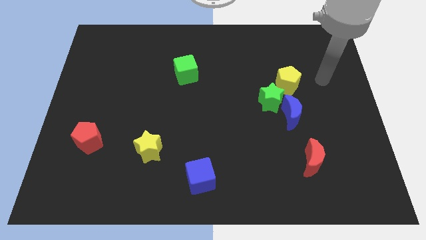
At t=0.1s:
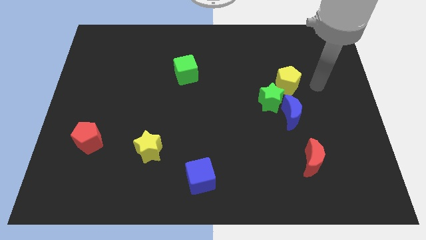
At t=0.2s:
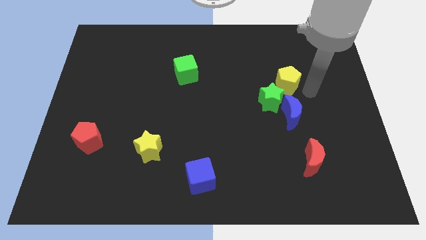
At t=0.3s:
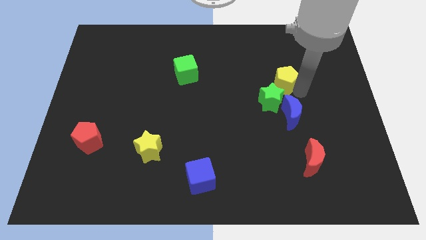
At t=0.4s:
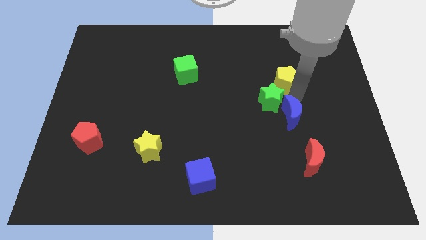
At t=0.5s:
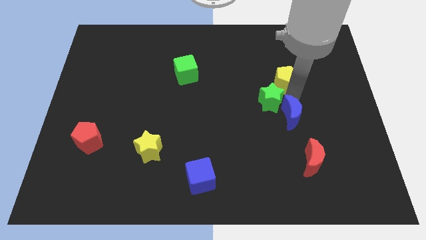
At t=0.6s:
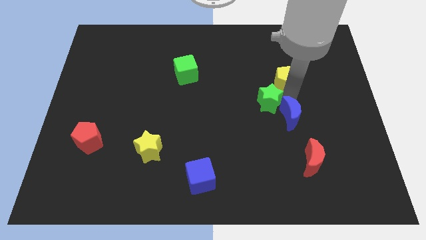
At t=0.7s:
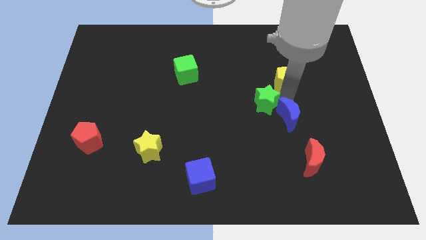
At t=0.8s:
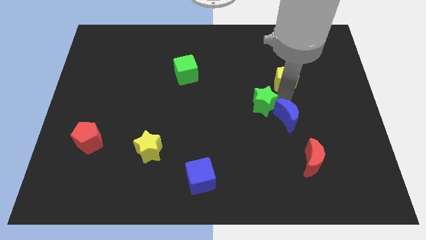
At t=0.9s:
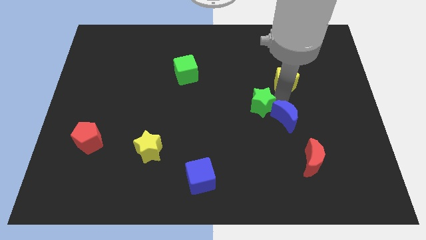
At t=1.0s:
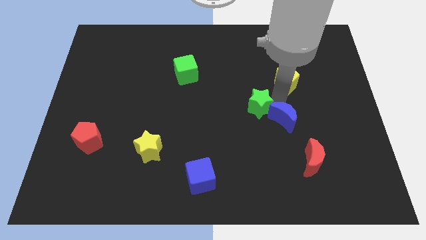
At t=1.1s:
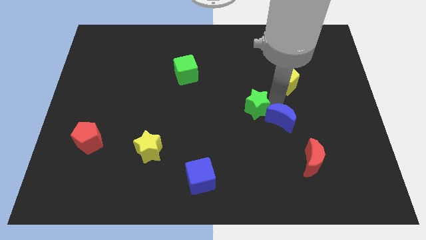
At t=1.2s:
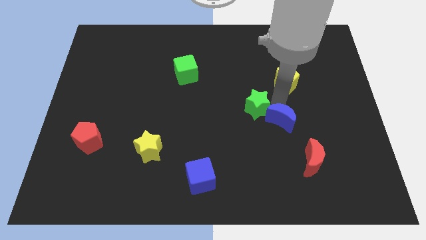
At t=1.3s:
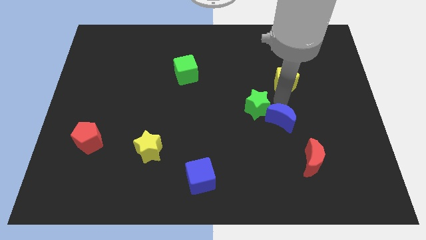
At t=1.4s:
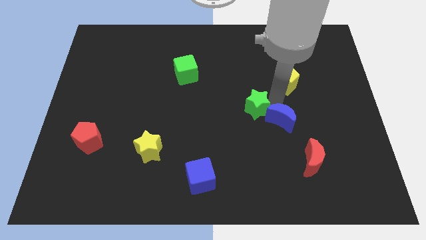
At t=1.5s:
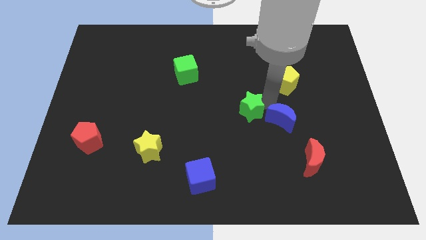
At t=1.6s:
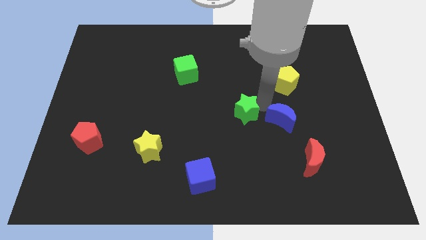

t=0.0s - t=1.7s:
pull the green star apart from the blue moon and yellow pentagon

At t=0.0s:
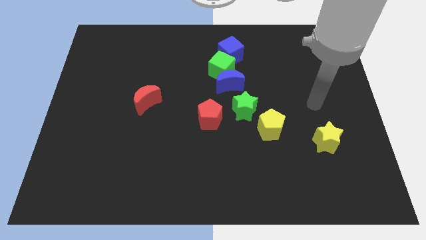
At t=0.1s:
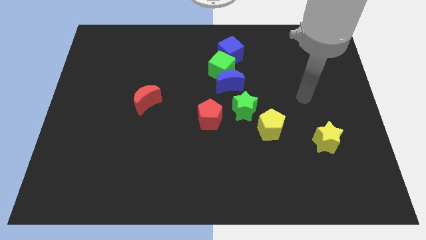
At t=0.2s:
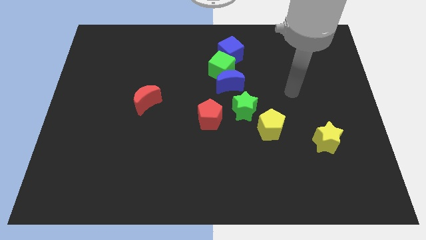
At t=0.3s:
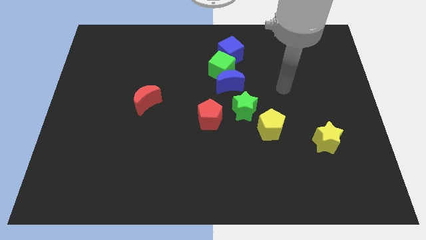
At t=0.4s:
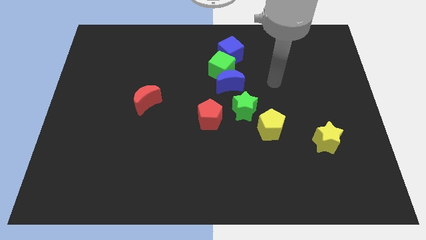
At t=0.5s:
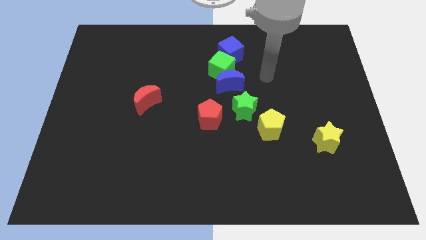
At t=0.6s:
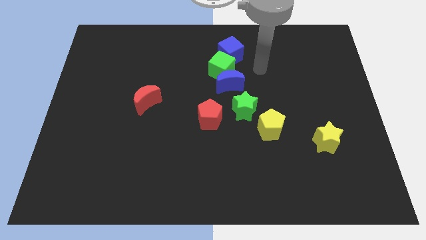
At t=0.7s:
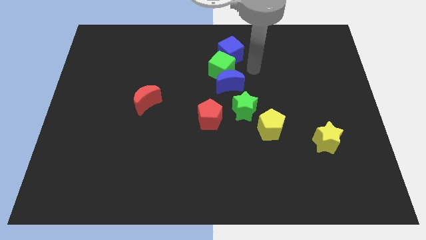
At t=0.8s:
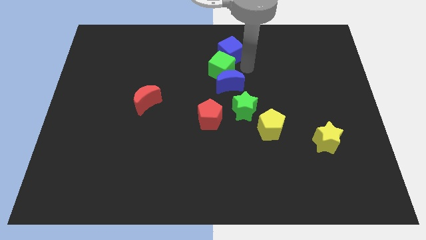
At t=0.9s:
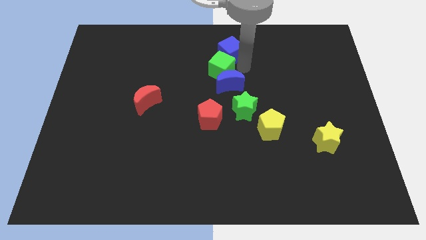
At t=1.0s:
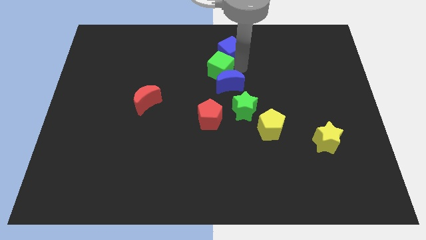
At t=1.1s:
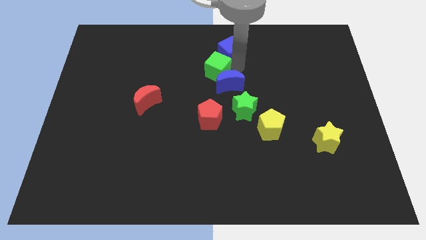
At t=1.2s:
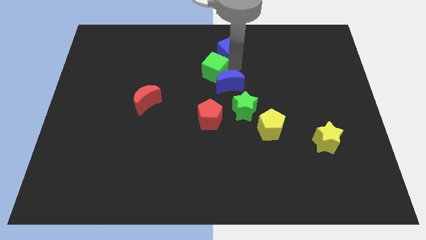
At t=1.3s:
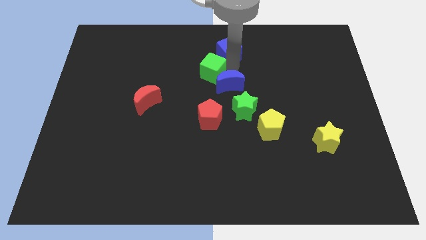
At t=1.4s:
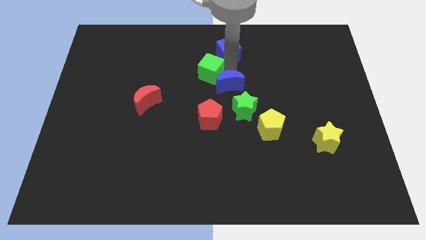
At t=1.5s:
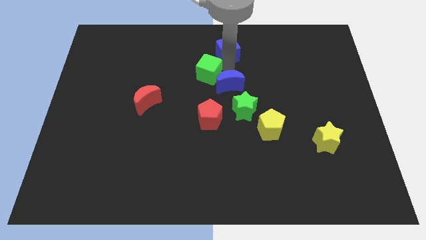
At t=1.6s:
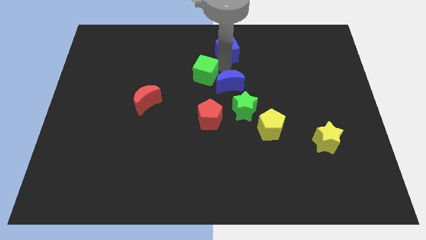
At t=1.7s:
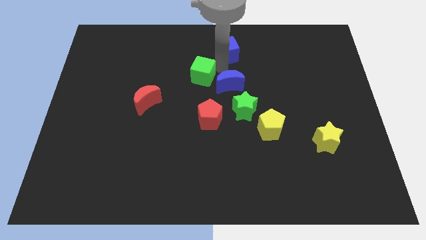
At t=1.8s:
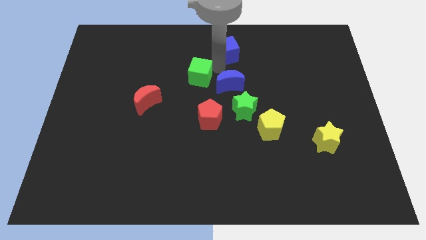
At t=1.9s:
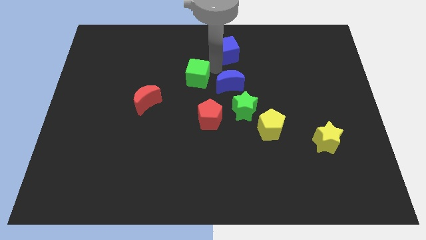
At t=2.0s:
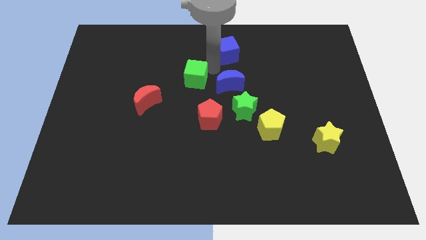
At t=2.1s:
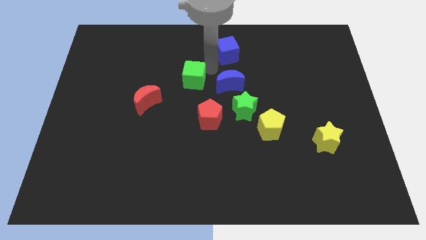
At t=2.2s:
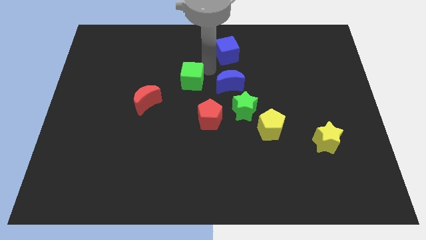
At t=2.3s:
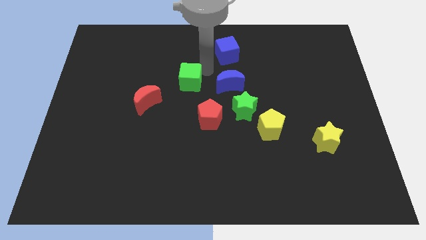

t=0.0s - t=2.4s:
pull the green cube apart from the blue moon and blue cube

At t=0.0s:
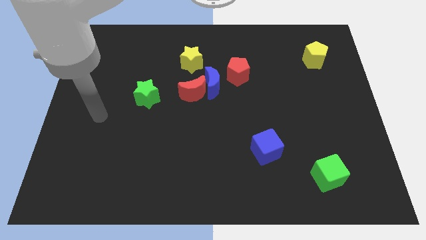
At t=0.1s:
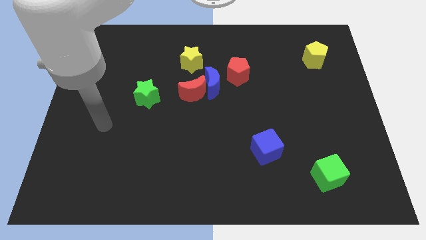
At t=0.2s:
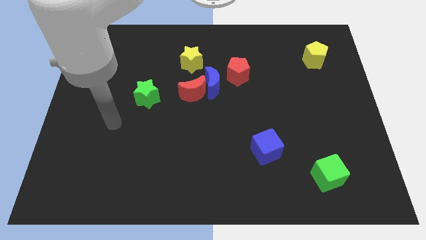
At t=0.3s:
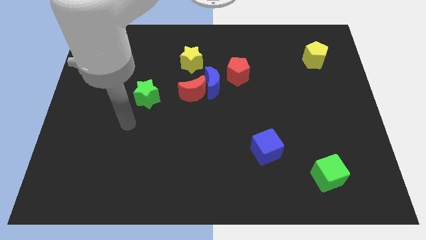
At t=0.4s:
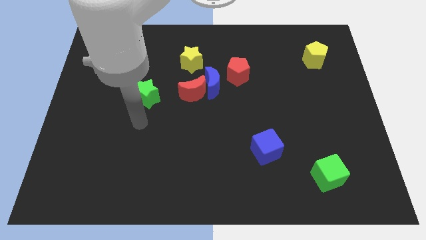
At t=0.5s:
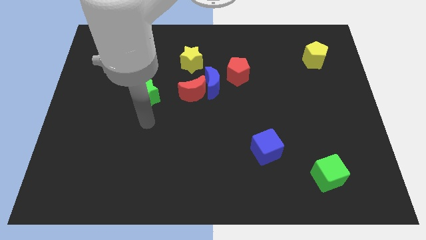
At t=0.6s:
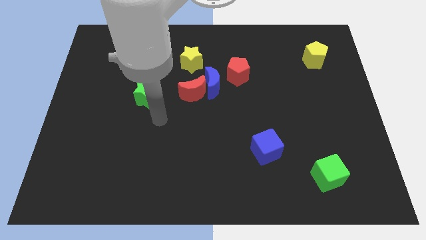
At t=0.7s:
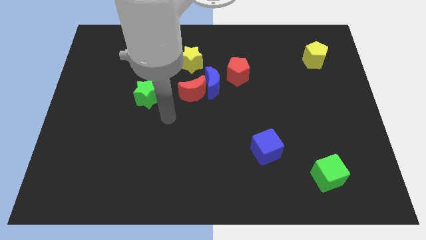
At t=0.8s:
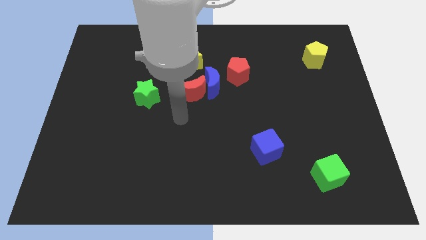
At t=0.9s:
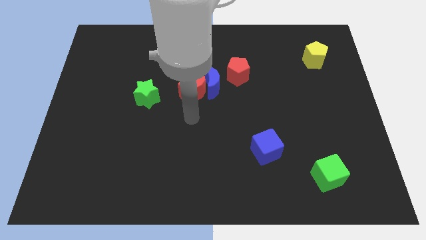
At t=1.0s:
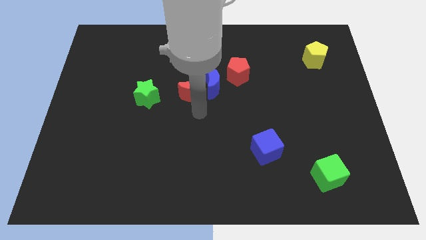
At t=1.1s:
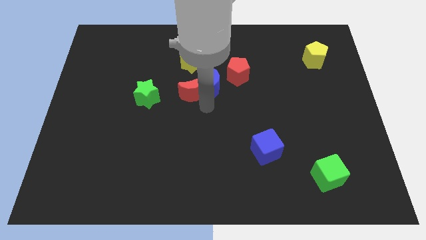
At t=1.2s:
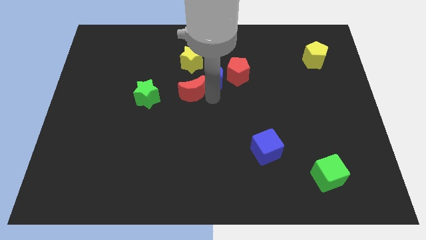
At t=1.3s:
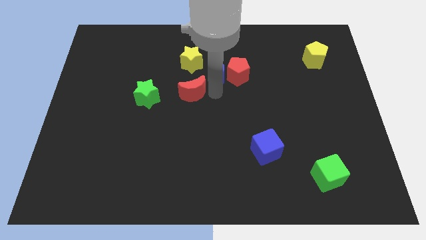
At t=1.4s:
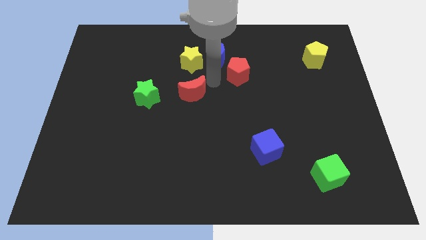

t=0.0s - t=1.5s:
move the red moon away from the blue moon

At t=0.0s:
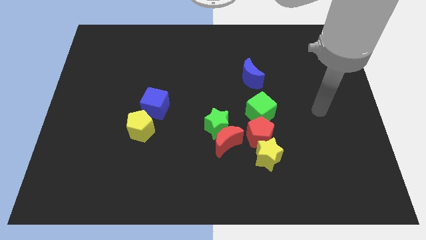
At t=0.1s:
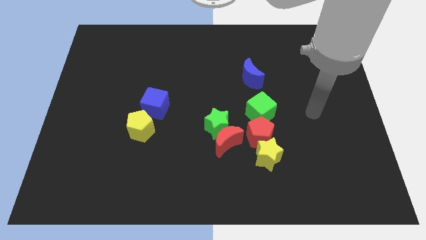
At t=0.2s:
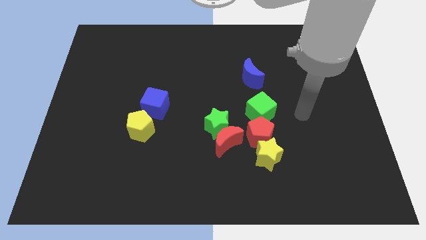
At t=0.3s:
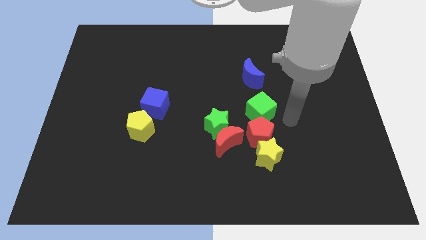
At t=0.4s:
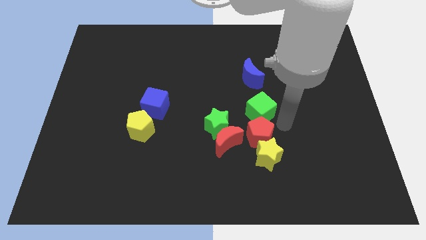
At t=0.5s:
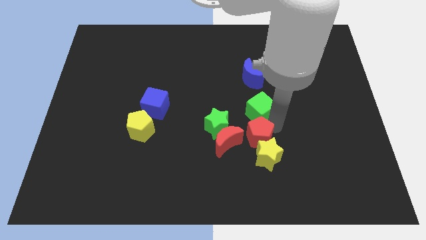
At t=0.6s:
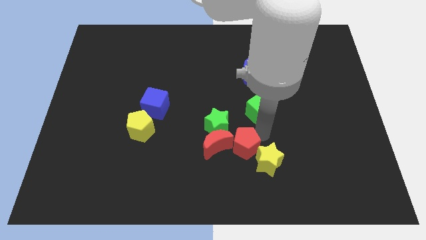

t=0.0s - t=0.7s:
pull the green cube apart from the red pentagon

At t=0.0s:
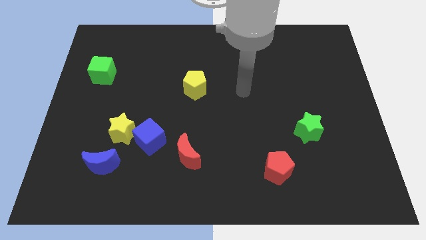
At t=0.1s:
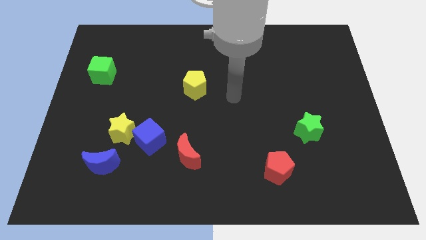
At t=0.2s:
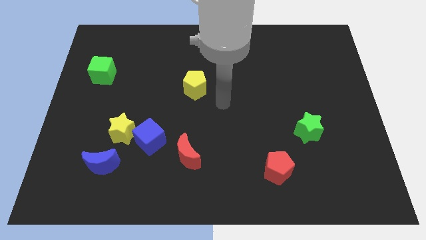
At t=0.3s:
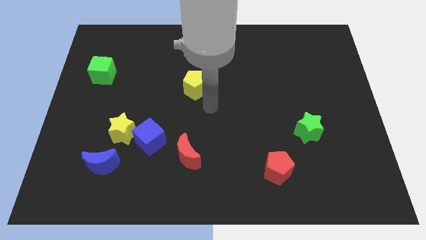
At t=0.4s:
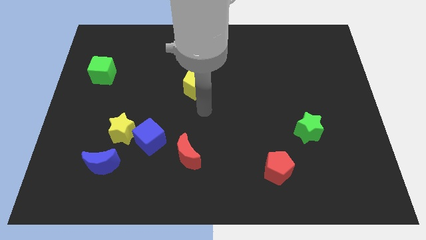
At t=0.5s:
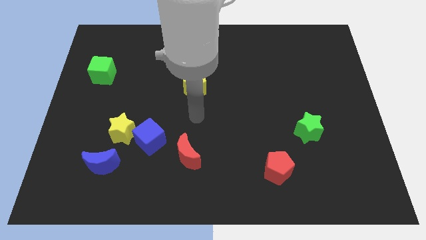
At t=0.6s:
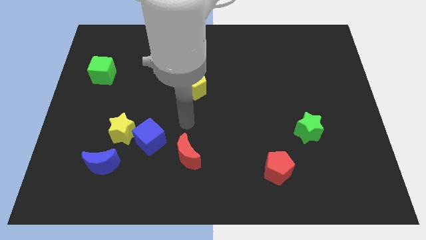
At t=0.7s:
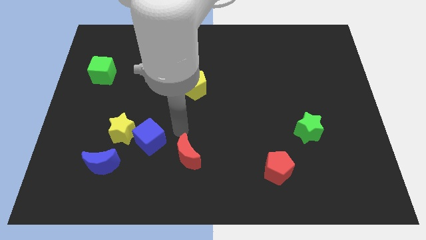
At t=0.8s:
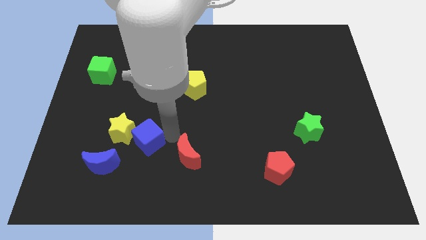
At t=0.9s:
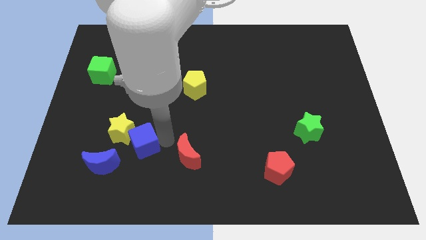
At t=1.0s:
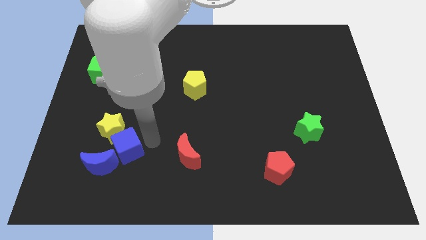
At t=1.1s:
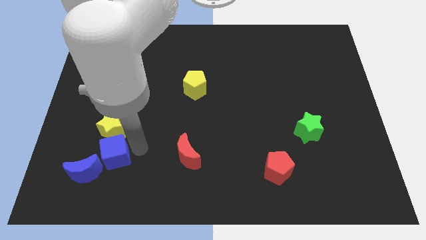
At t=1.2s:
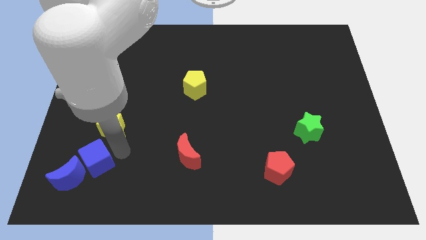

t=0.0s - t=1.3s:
separate the yellow star from the blue cube and blue moon

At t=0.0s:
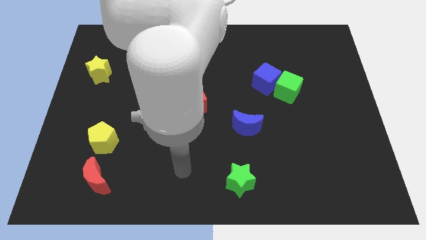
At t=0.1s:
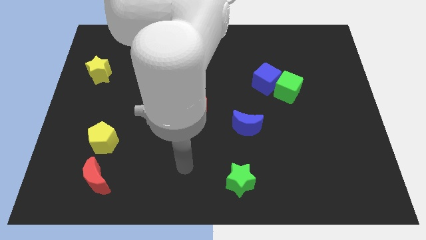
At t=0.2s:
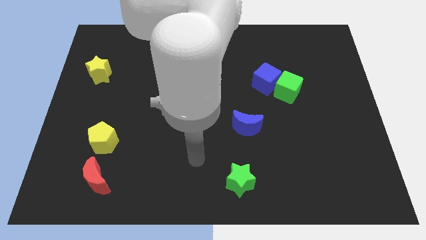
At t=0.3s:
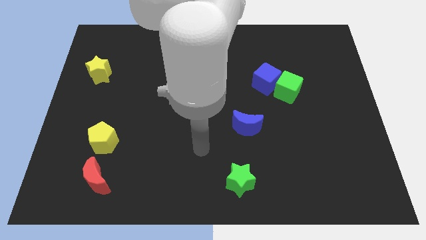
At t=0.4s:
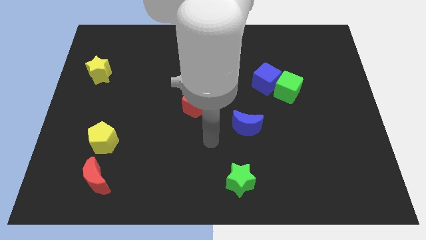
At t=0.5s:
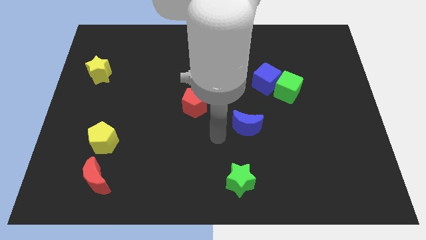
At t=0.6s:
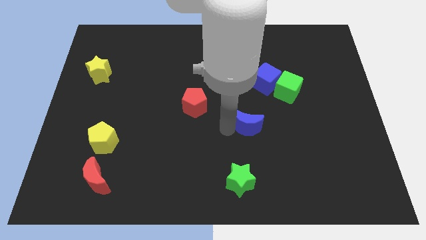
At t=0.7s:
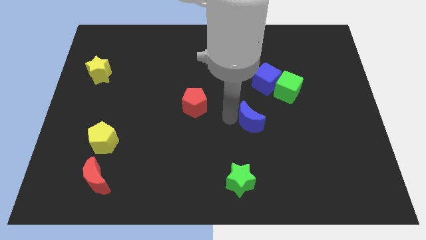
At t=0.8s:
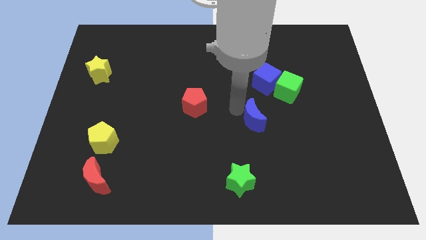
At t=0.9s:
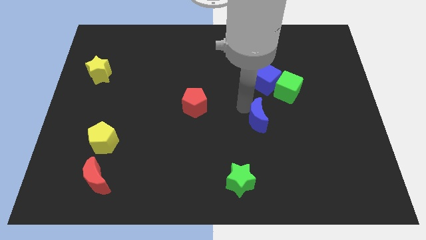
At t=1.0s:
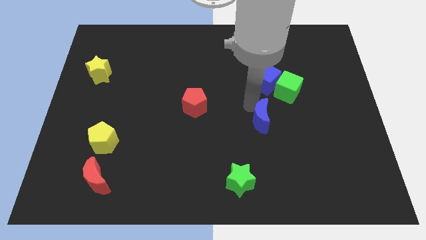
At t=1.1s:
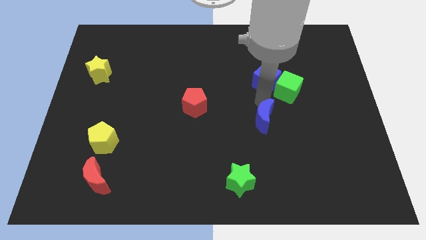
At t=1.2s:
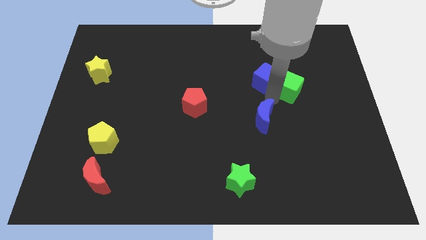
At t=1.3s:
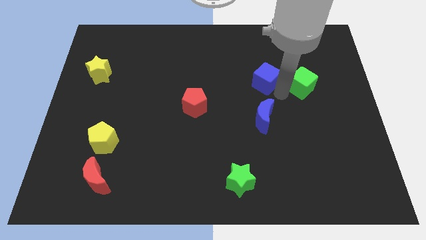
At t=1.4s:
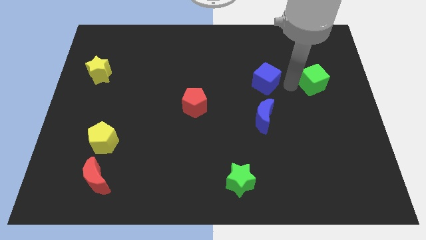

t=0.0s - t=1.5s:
separate the blue cube from the green cube

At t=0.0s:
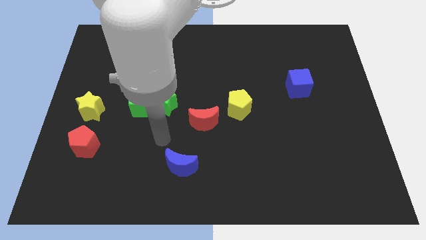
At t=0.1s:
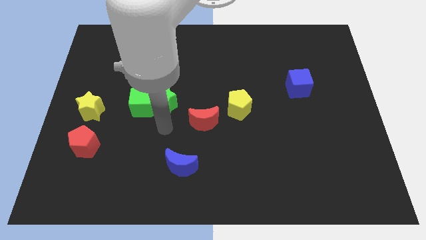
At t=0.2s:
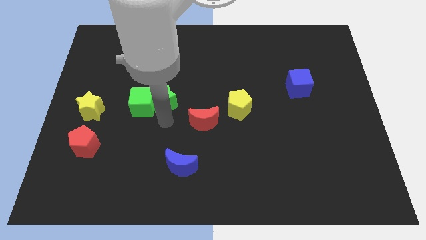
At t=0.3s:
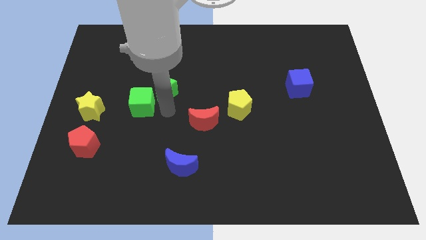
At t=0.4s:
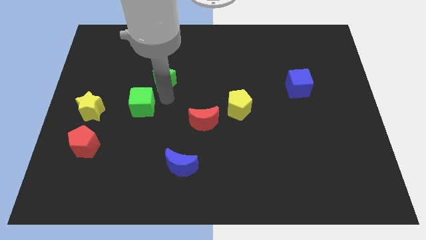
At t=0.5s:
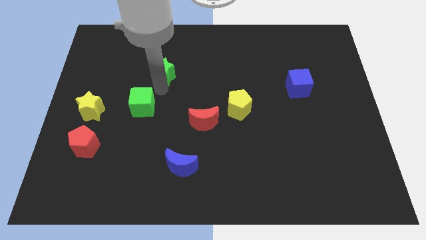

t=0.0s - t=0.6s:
separate the green cube from the green star
